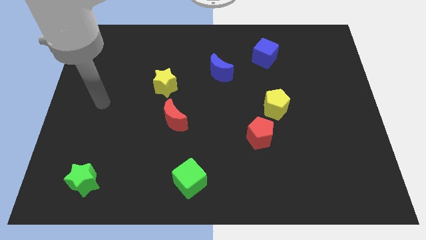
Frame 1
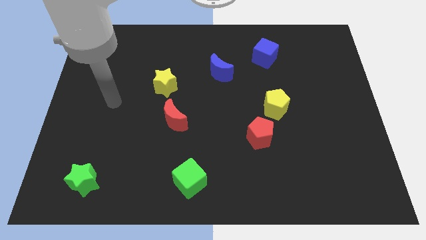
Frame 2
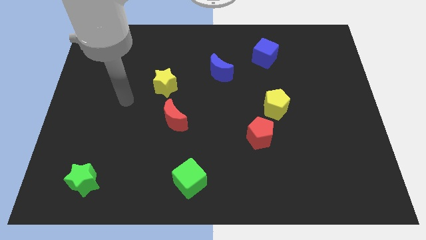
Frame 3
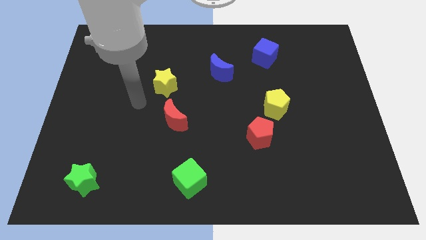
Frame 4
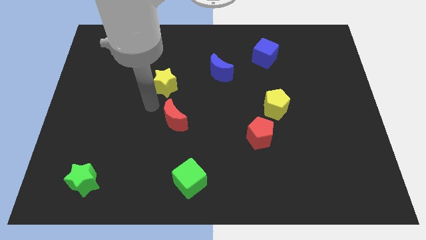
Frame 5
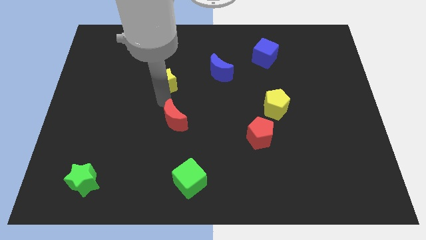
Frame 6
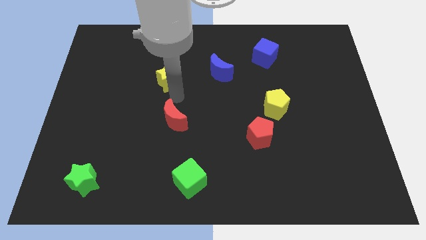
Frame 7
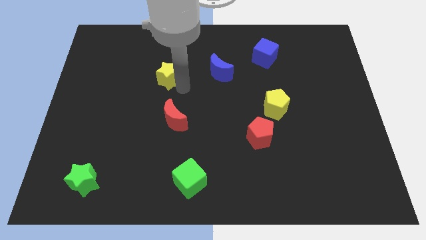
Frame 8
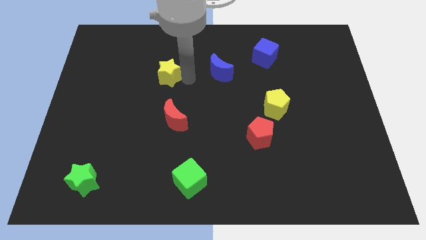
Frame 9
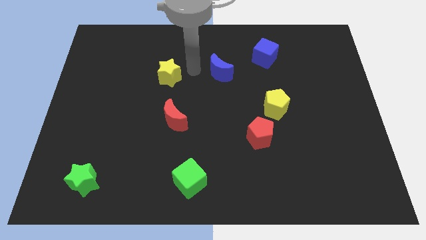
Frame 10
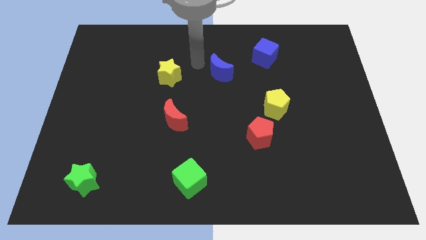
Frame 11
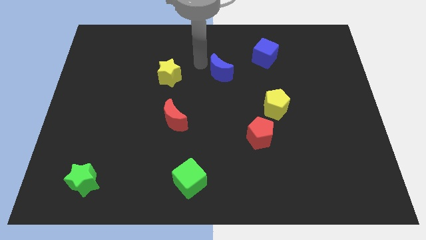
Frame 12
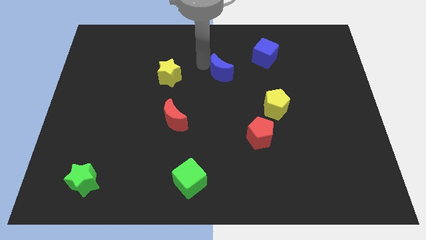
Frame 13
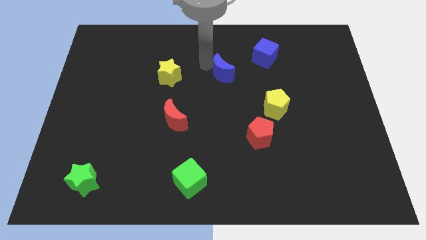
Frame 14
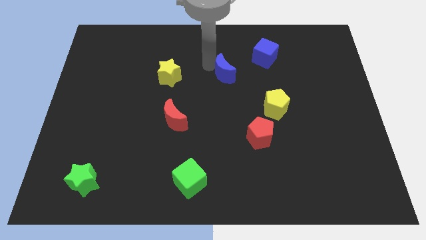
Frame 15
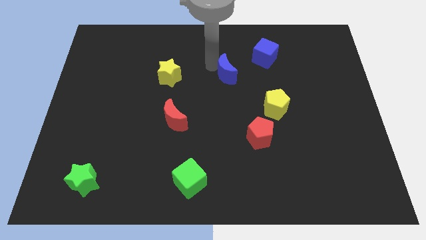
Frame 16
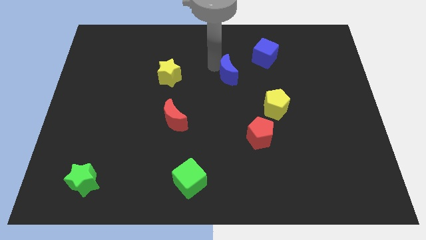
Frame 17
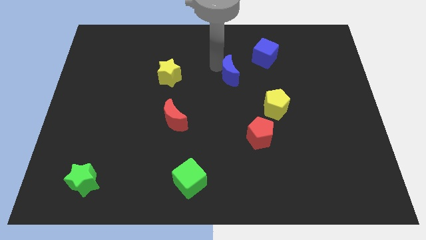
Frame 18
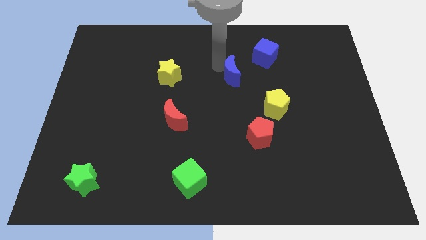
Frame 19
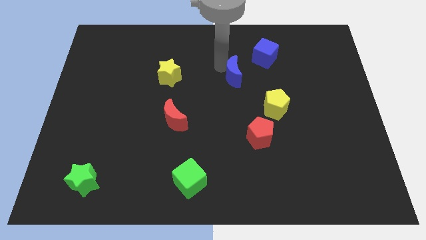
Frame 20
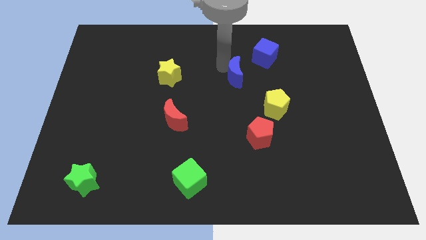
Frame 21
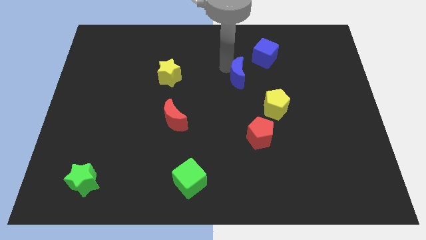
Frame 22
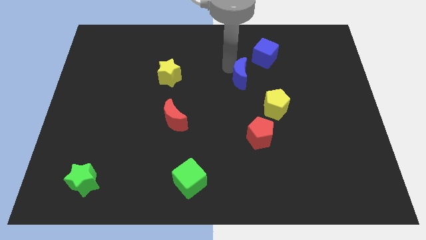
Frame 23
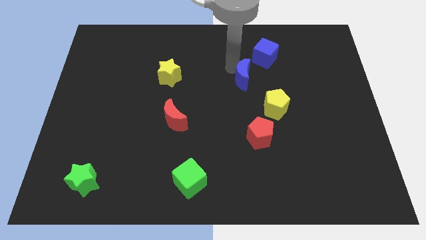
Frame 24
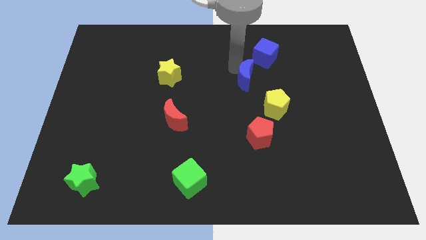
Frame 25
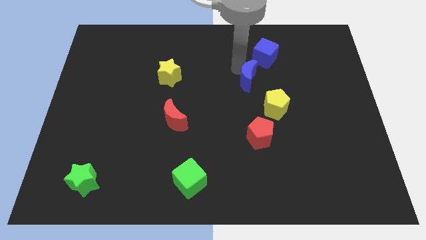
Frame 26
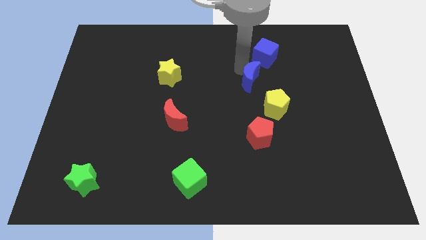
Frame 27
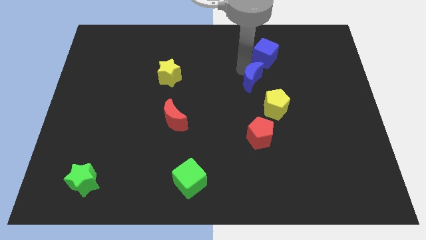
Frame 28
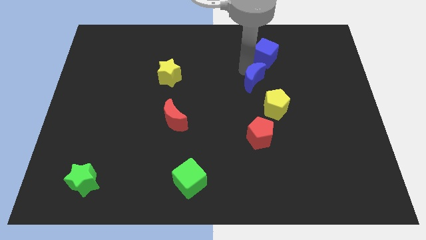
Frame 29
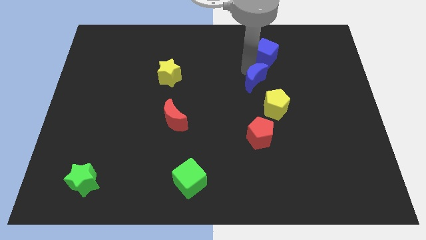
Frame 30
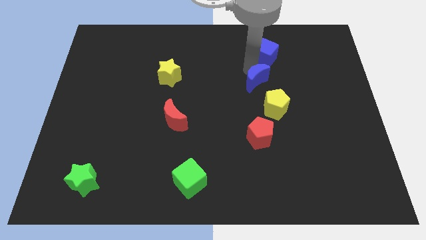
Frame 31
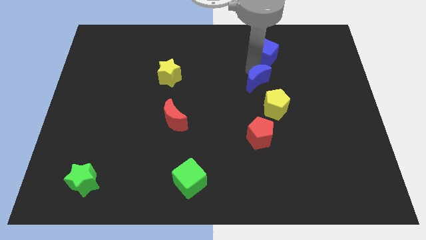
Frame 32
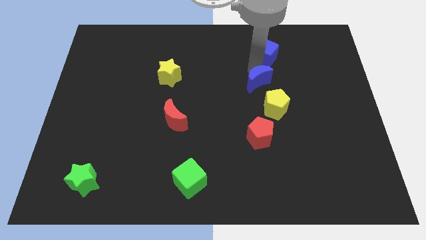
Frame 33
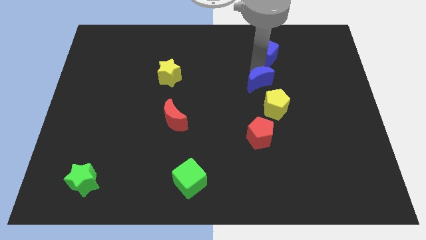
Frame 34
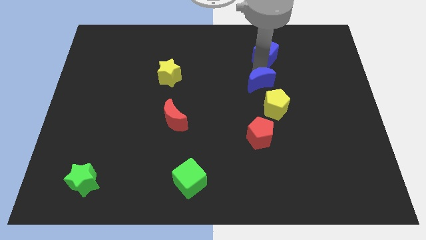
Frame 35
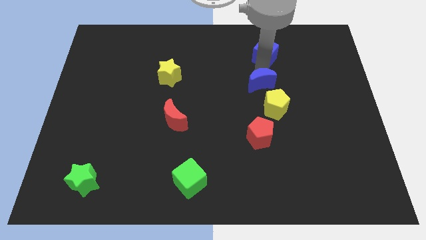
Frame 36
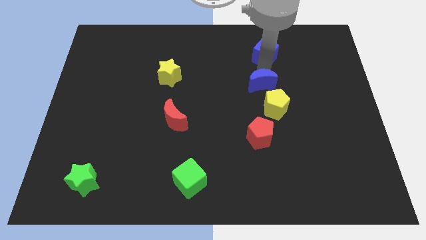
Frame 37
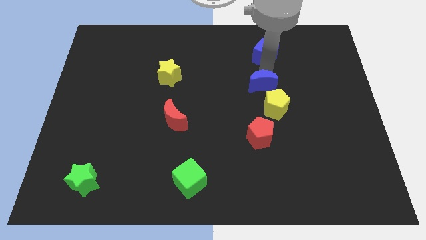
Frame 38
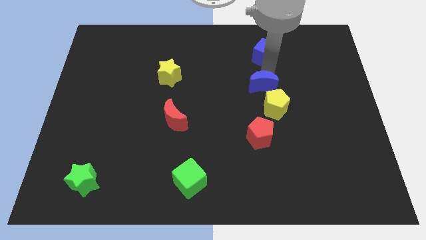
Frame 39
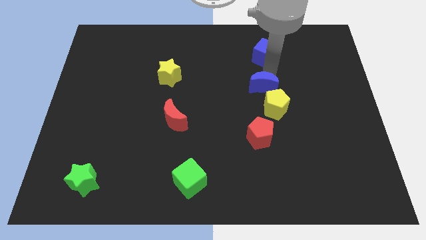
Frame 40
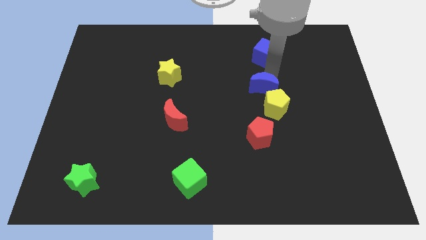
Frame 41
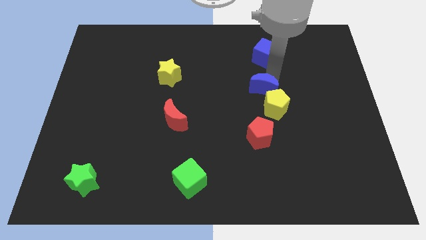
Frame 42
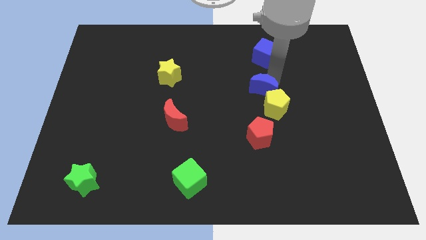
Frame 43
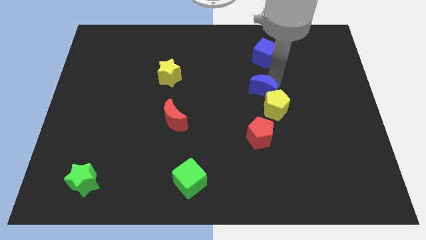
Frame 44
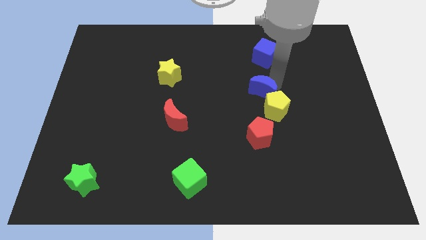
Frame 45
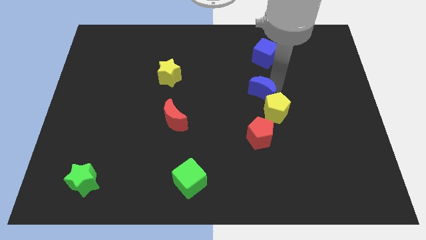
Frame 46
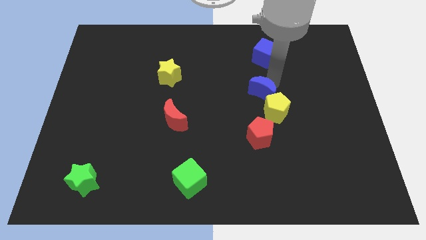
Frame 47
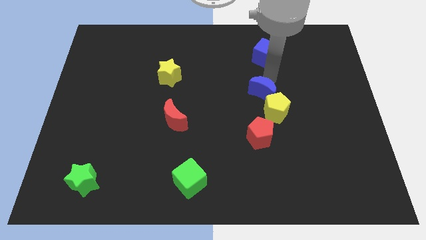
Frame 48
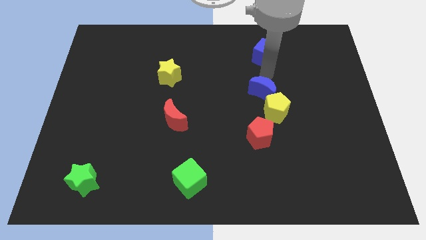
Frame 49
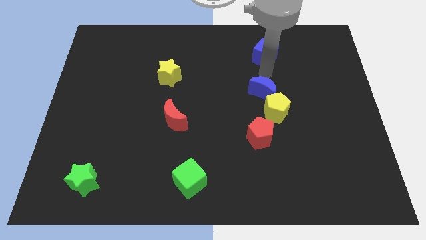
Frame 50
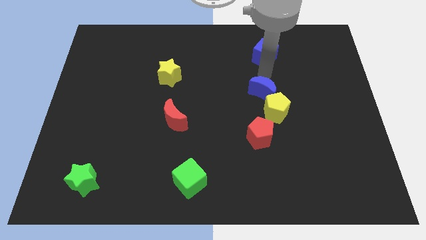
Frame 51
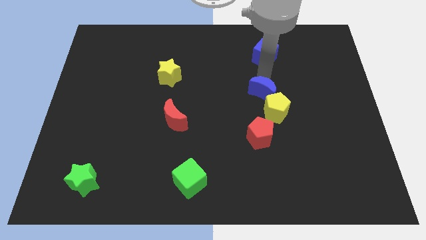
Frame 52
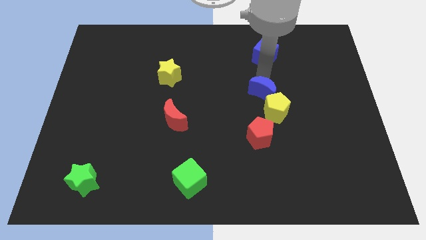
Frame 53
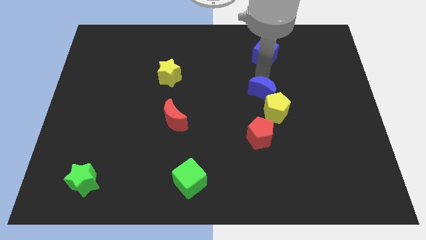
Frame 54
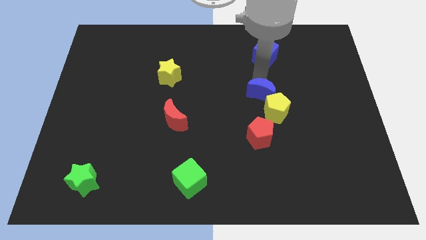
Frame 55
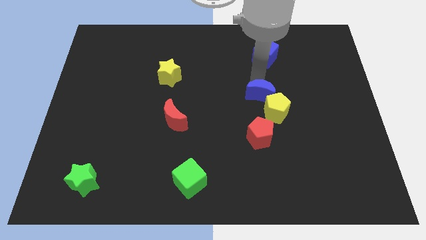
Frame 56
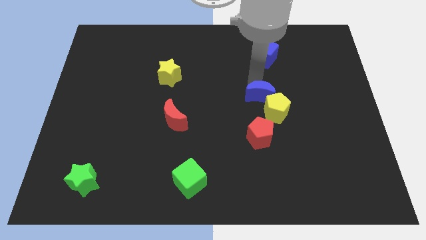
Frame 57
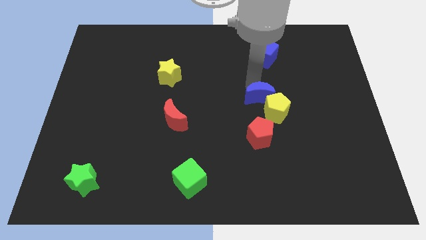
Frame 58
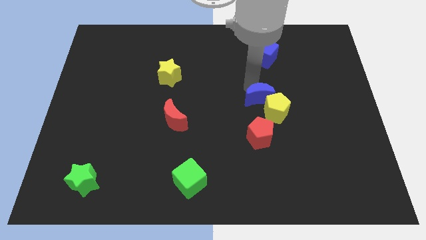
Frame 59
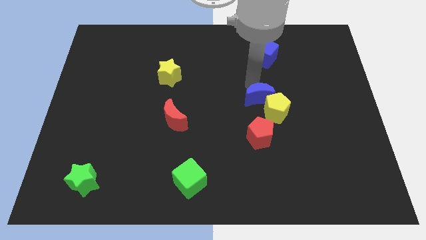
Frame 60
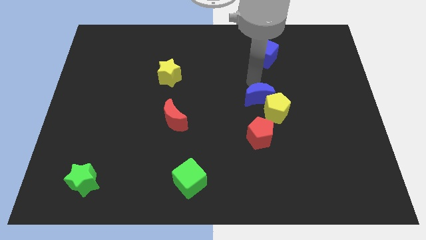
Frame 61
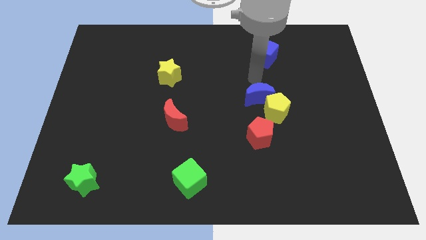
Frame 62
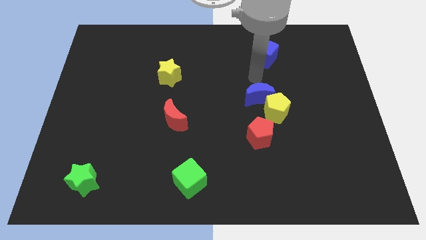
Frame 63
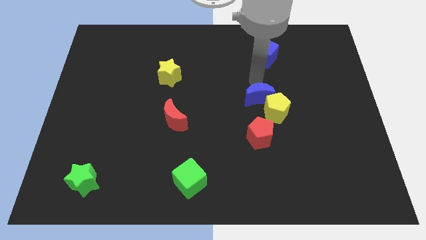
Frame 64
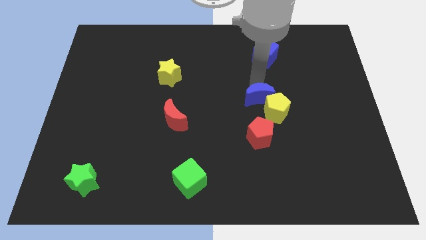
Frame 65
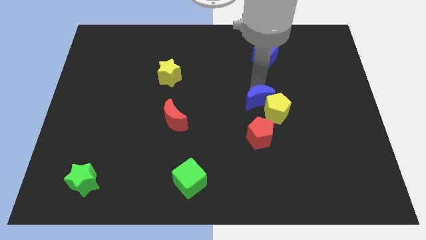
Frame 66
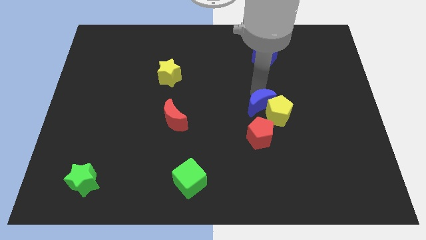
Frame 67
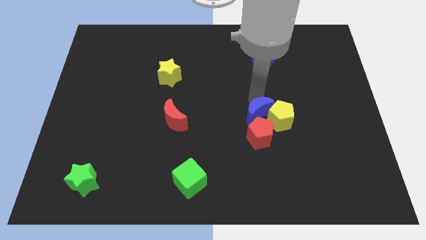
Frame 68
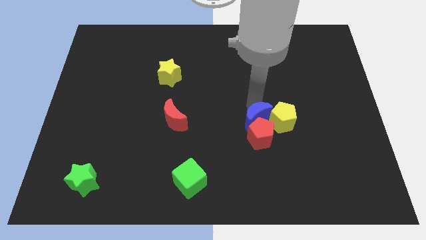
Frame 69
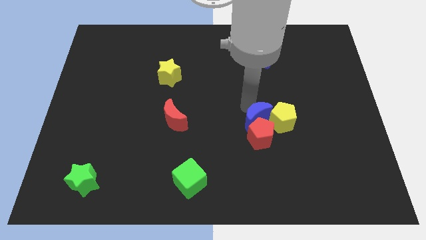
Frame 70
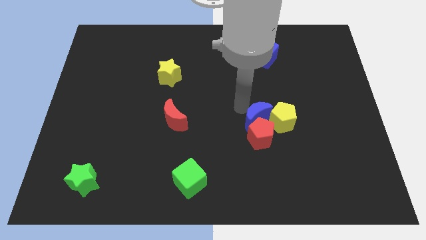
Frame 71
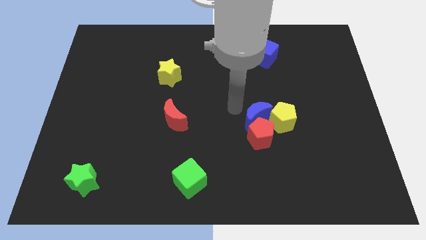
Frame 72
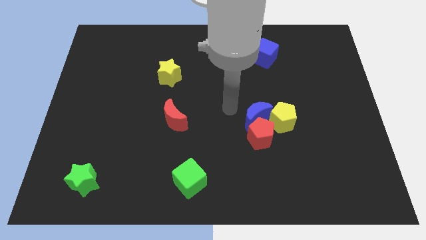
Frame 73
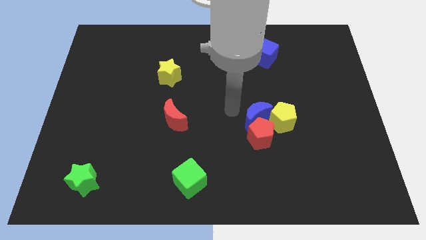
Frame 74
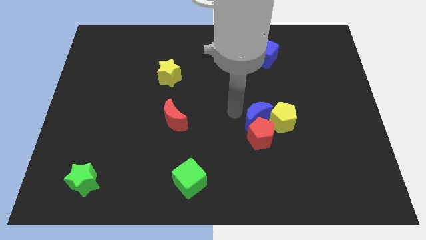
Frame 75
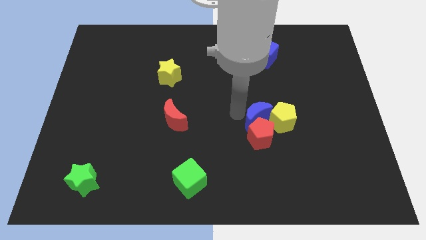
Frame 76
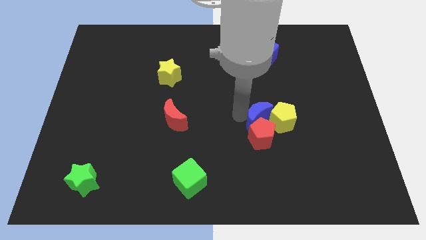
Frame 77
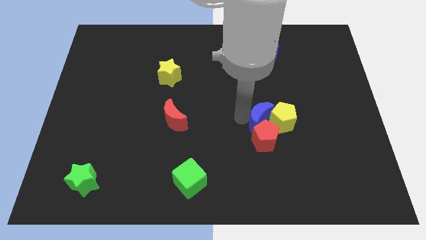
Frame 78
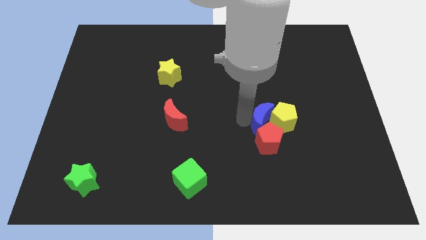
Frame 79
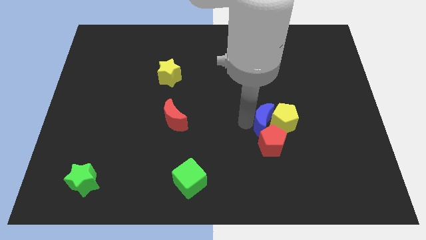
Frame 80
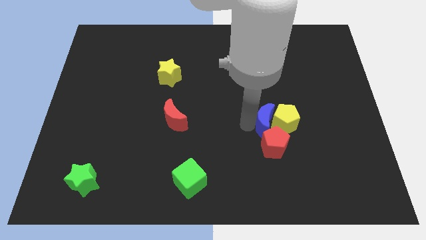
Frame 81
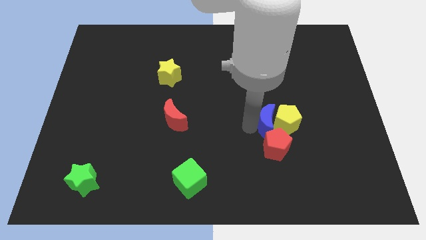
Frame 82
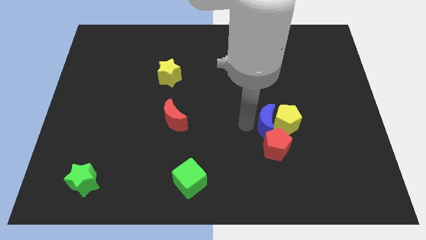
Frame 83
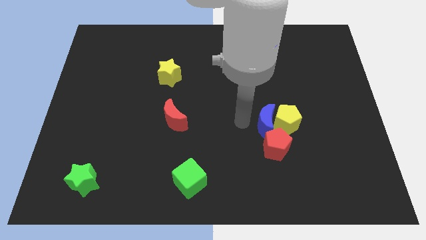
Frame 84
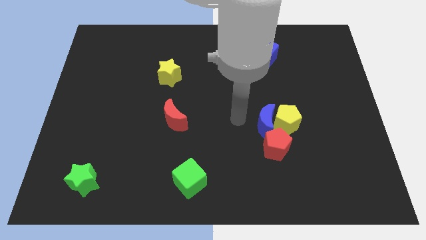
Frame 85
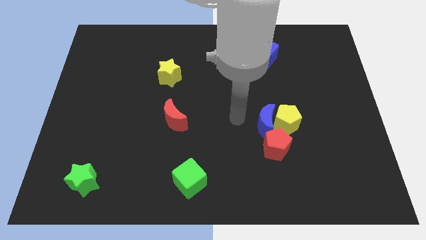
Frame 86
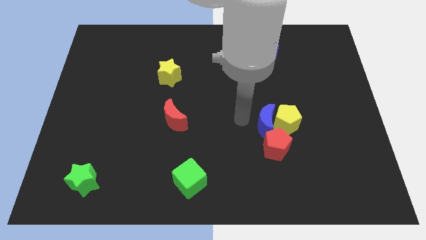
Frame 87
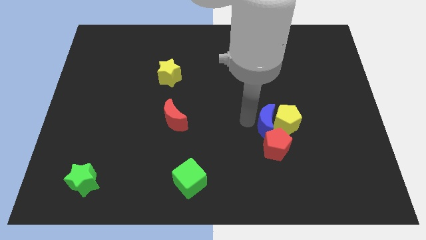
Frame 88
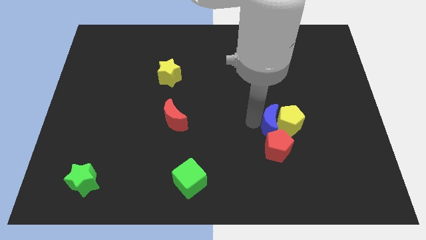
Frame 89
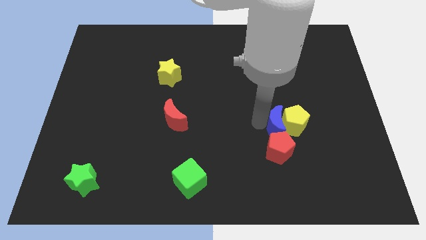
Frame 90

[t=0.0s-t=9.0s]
move the blue moon down and then to the right
